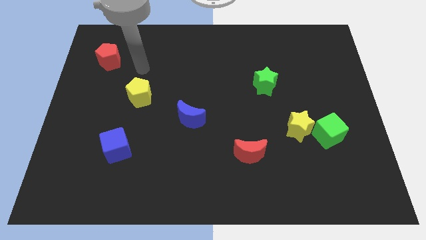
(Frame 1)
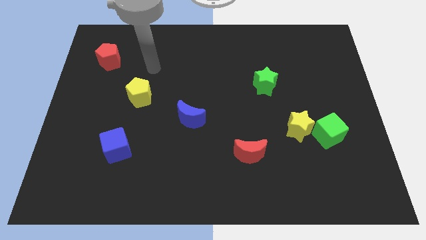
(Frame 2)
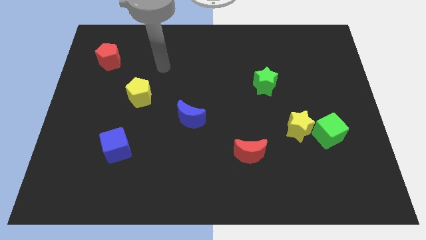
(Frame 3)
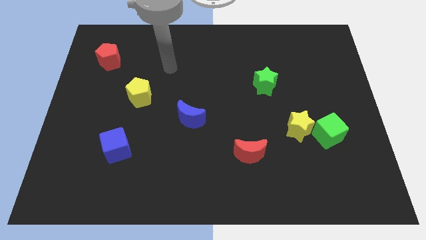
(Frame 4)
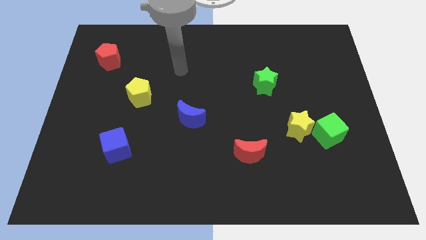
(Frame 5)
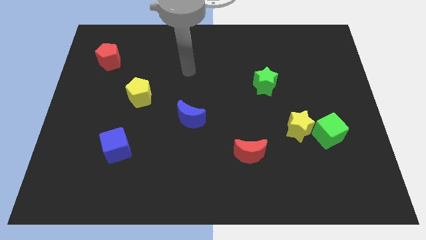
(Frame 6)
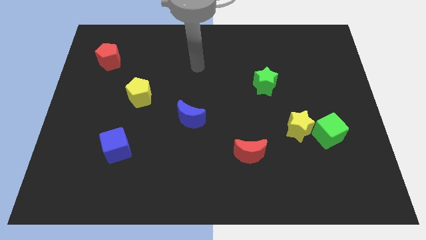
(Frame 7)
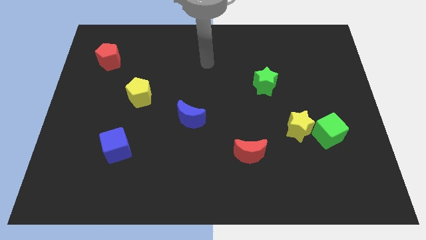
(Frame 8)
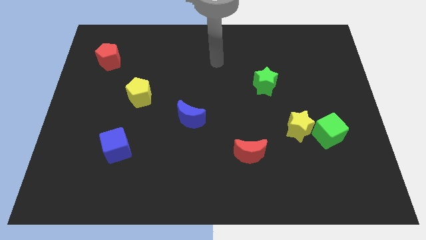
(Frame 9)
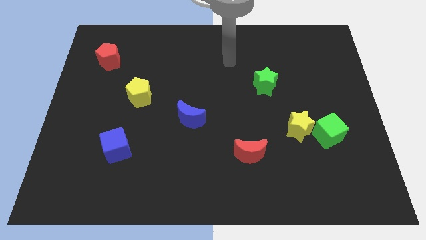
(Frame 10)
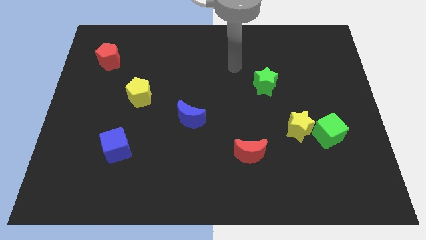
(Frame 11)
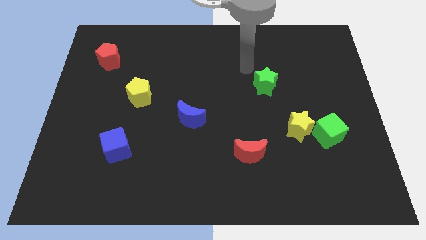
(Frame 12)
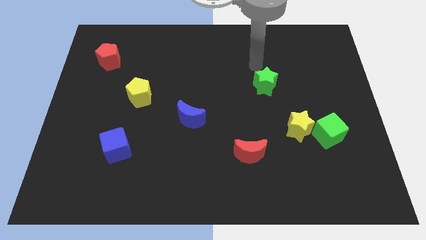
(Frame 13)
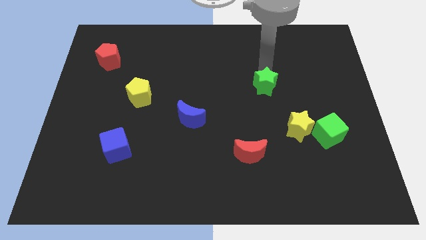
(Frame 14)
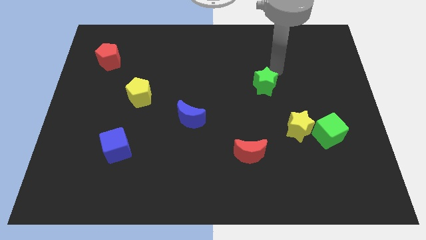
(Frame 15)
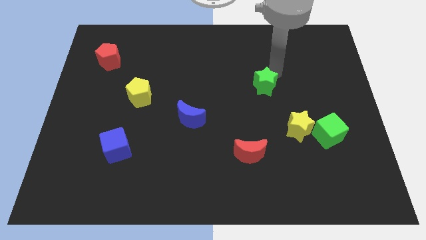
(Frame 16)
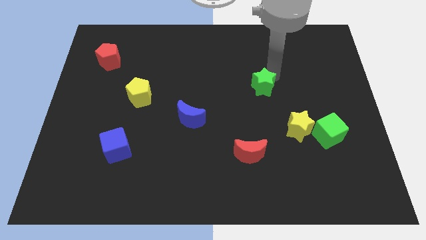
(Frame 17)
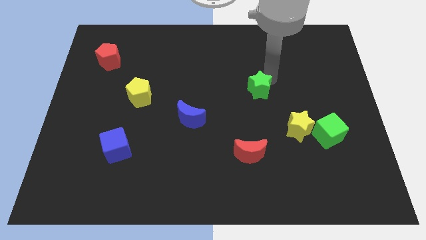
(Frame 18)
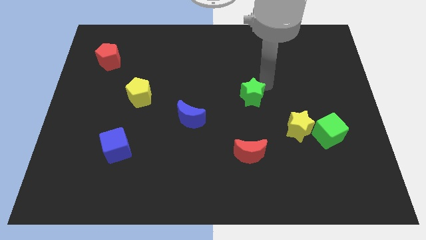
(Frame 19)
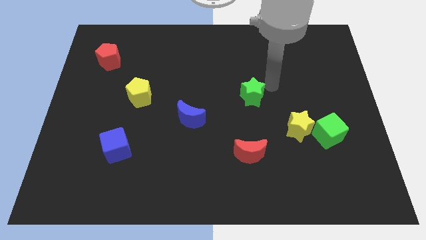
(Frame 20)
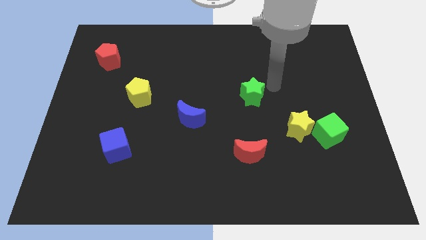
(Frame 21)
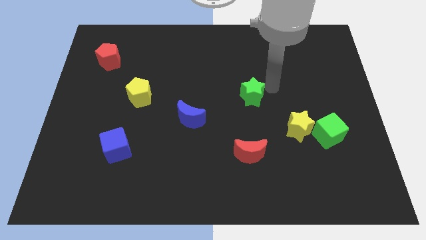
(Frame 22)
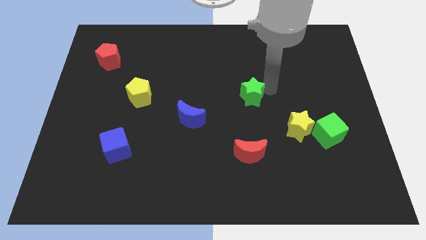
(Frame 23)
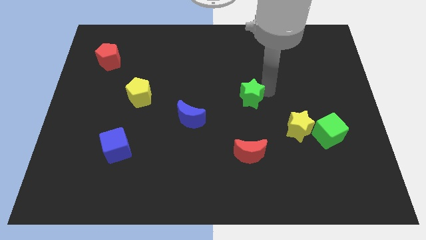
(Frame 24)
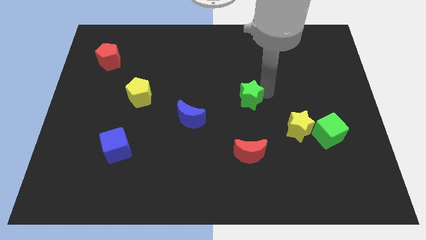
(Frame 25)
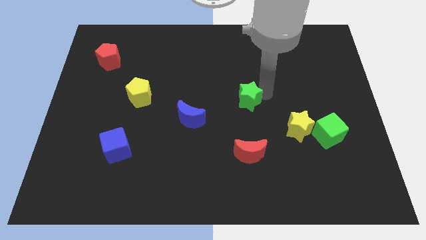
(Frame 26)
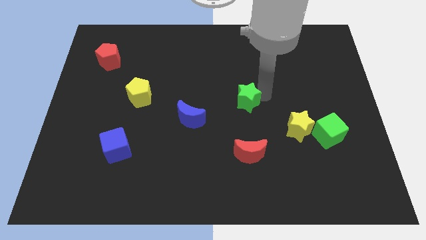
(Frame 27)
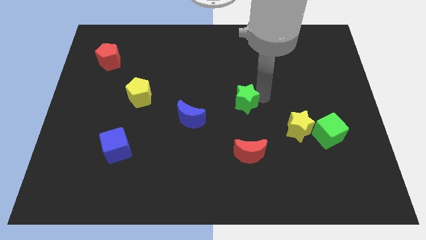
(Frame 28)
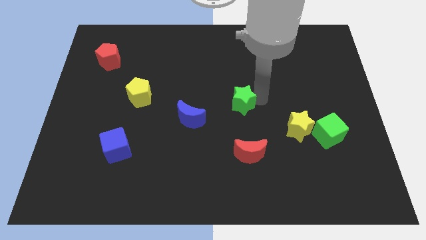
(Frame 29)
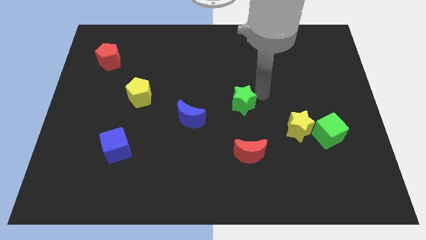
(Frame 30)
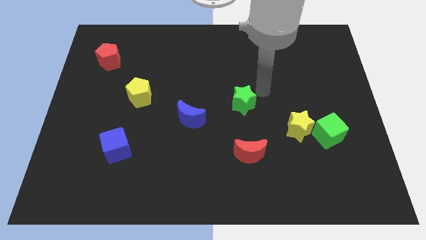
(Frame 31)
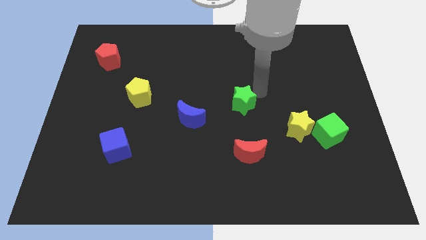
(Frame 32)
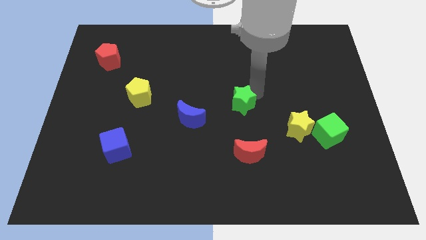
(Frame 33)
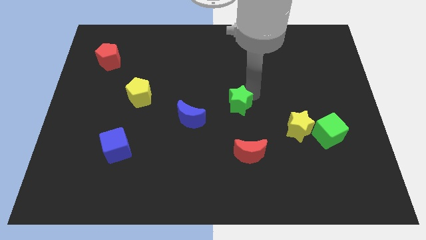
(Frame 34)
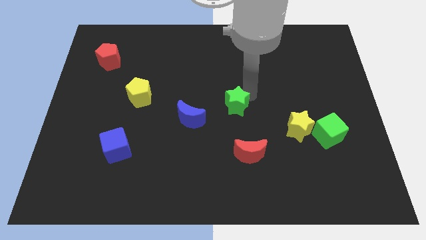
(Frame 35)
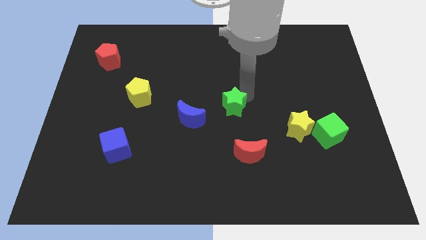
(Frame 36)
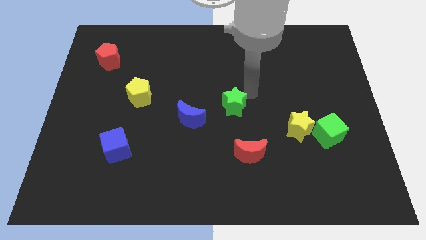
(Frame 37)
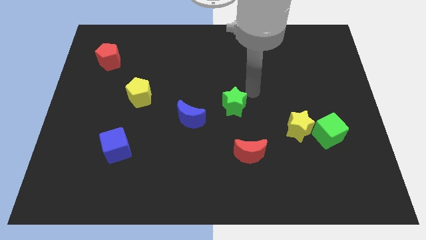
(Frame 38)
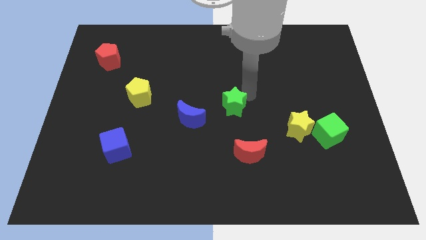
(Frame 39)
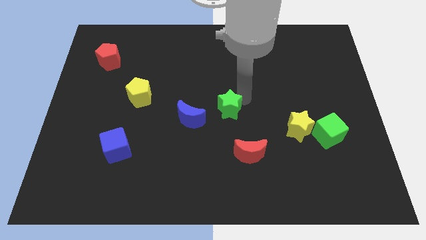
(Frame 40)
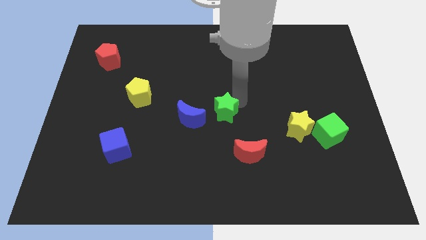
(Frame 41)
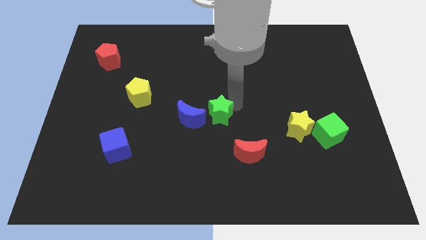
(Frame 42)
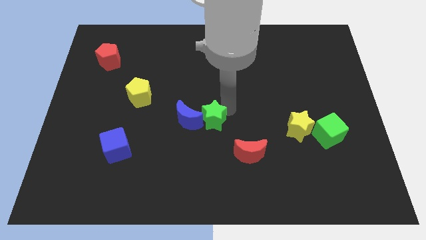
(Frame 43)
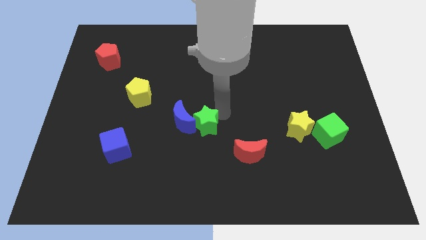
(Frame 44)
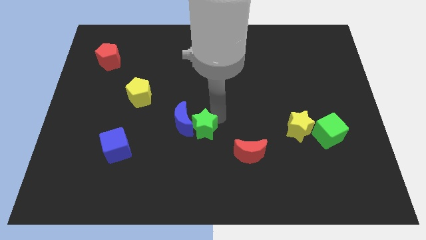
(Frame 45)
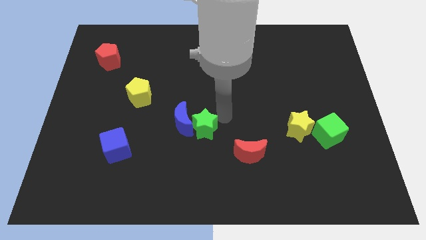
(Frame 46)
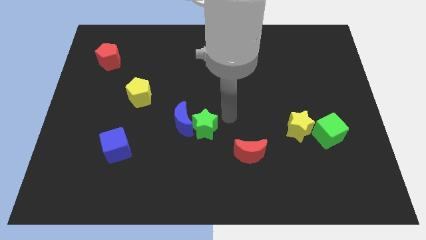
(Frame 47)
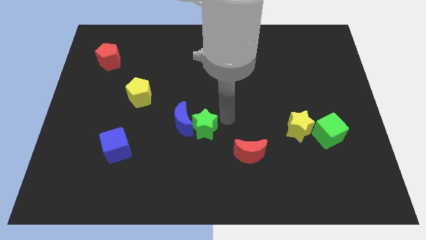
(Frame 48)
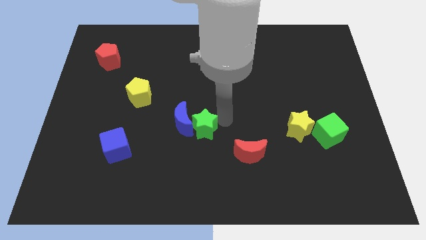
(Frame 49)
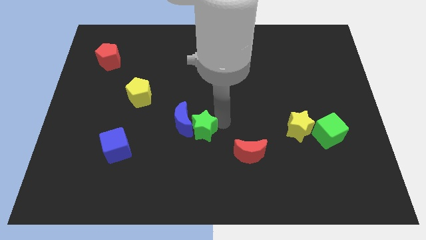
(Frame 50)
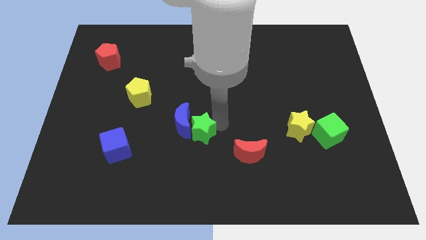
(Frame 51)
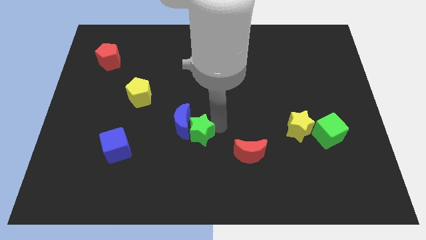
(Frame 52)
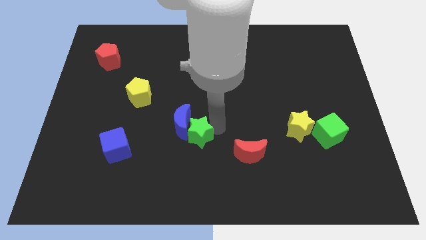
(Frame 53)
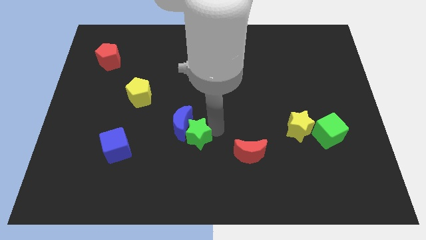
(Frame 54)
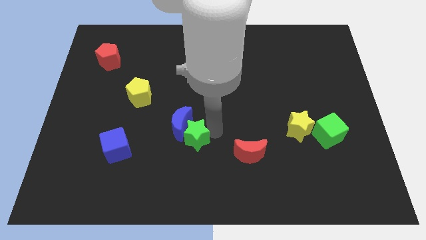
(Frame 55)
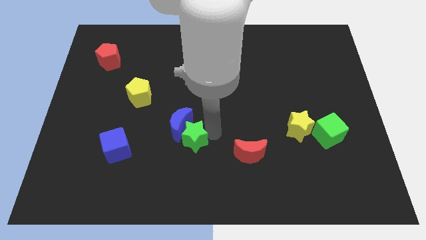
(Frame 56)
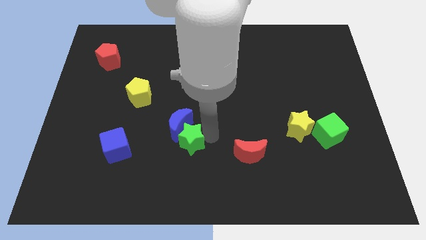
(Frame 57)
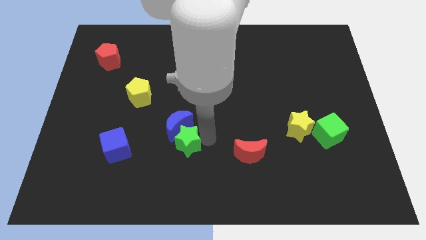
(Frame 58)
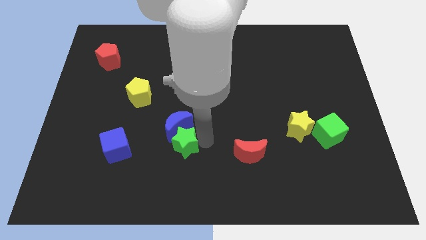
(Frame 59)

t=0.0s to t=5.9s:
push the green star to the bottom left side of the blue moon

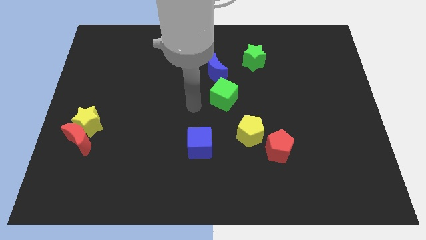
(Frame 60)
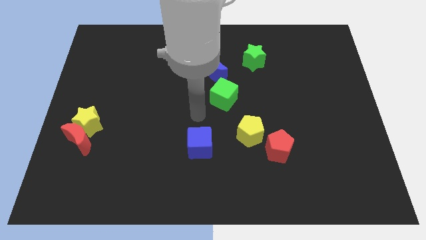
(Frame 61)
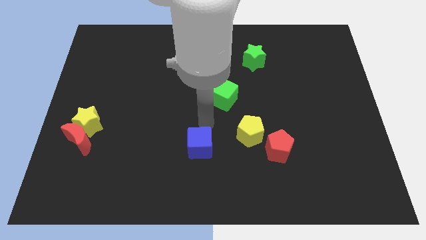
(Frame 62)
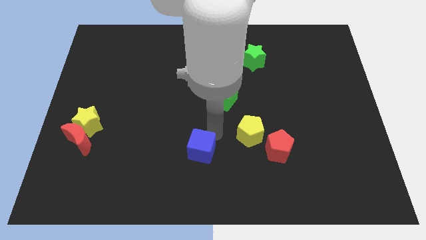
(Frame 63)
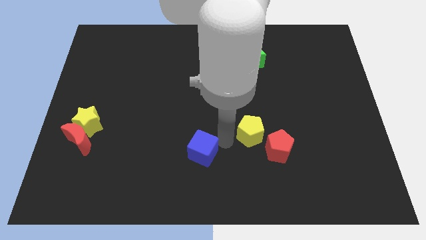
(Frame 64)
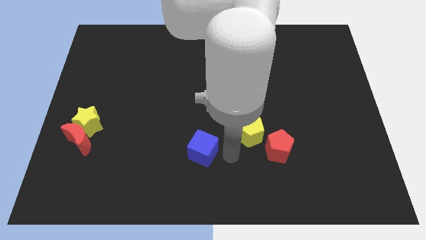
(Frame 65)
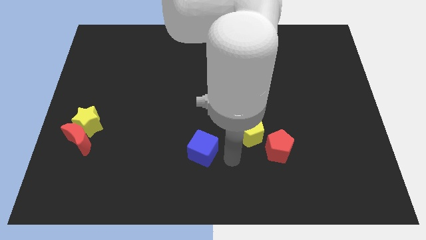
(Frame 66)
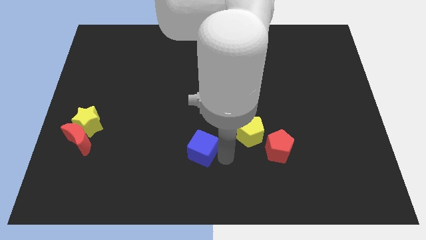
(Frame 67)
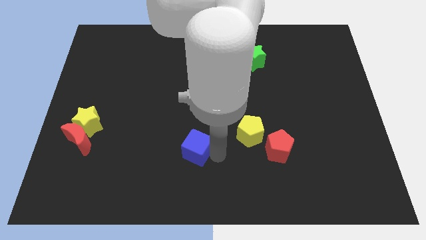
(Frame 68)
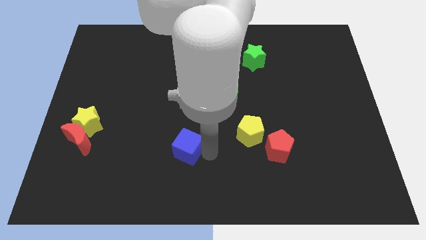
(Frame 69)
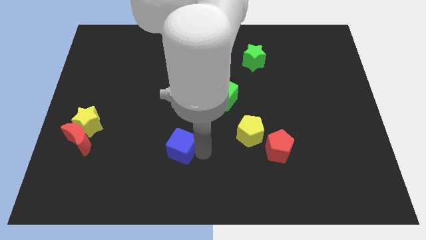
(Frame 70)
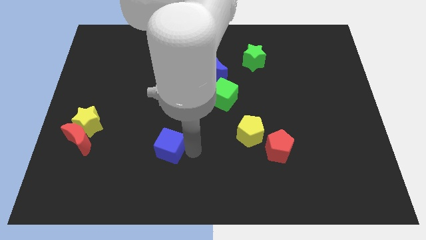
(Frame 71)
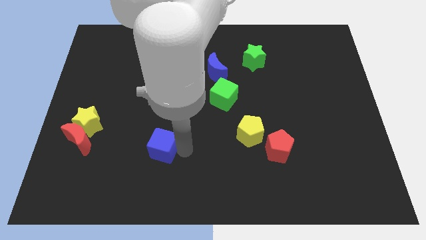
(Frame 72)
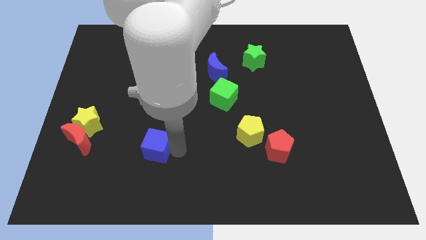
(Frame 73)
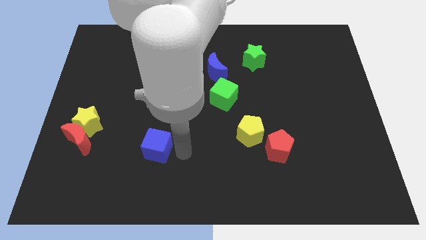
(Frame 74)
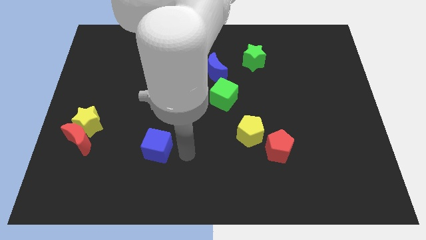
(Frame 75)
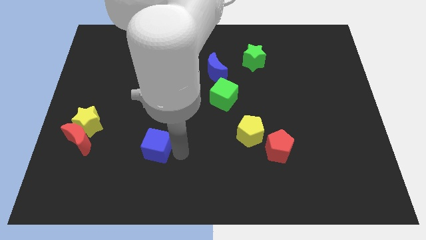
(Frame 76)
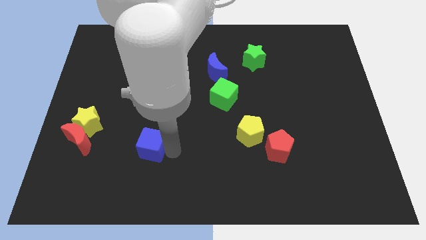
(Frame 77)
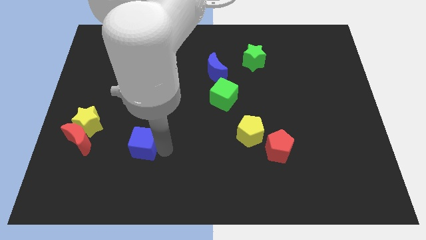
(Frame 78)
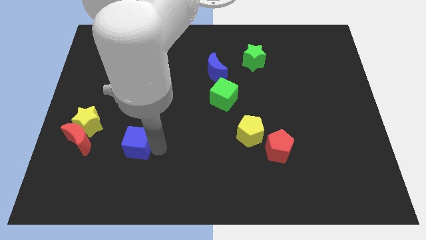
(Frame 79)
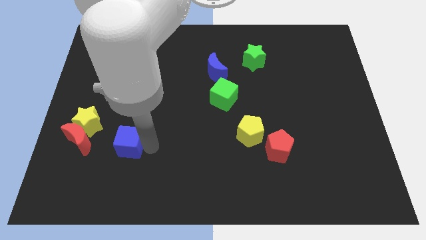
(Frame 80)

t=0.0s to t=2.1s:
put the blue cube to the bottom right of the yellow star
